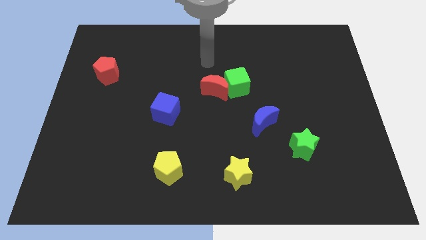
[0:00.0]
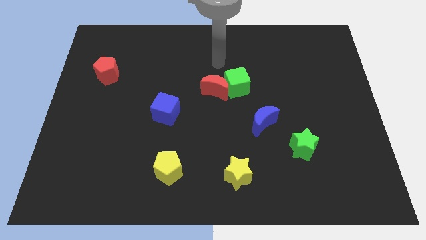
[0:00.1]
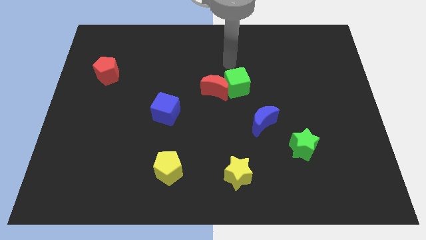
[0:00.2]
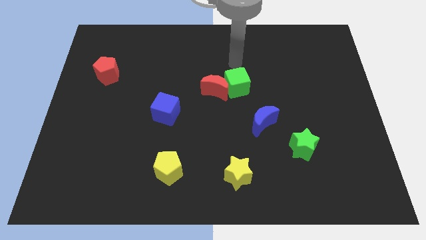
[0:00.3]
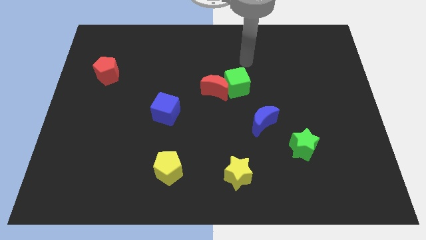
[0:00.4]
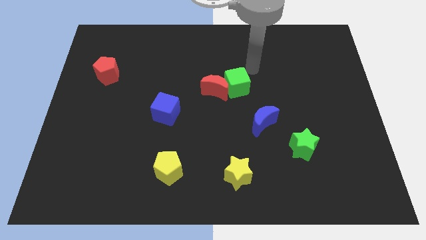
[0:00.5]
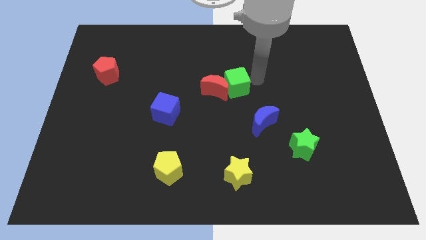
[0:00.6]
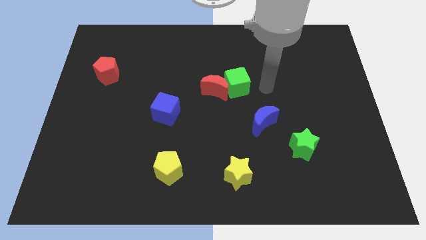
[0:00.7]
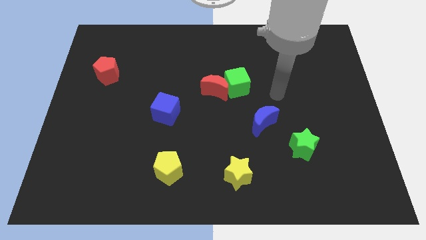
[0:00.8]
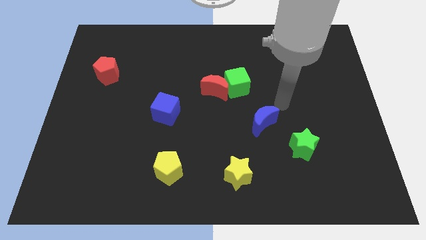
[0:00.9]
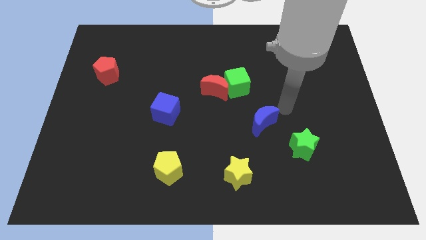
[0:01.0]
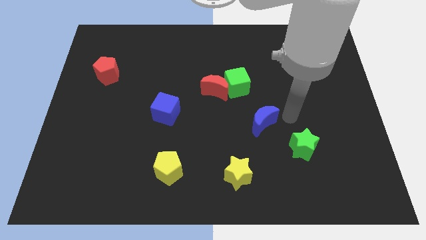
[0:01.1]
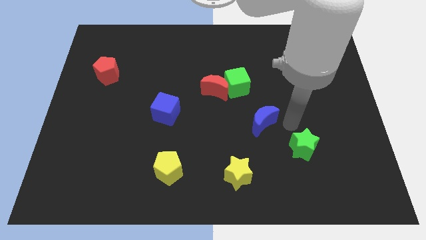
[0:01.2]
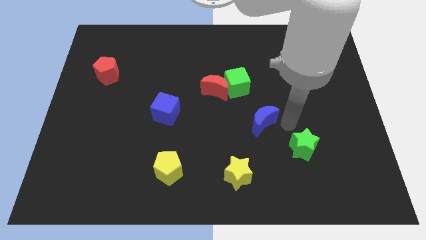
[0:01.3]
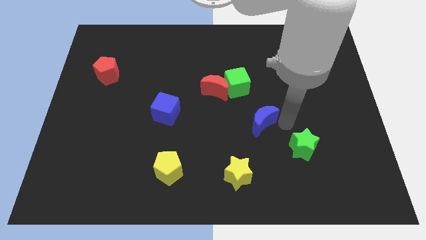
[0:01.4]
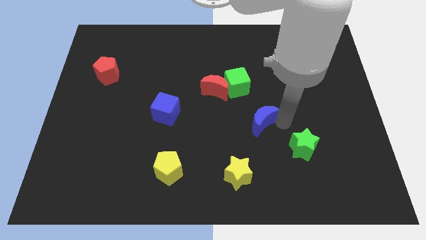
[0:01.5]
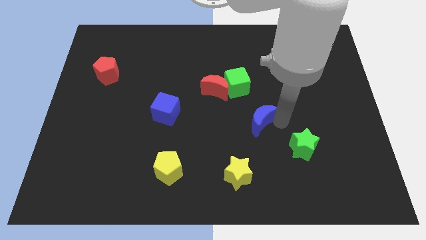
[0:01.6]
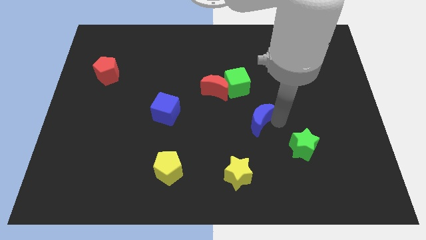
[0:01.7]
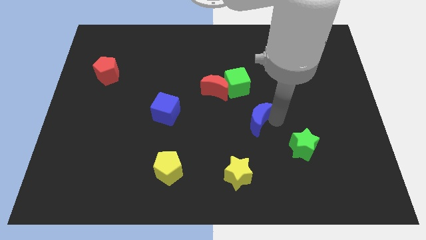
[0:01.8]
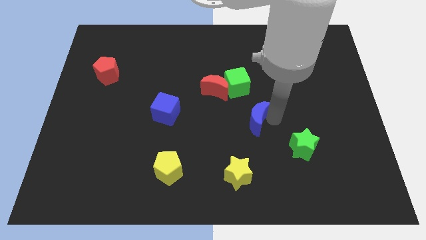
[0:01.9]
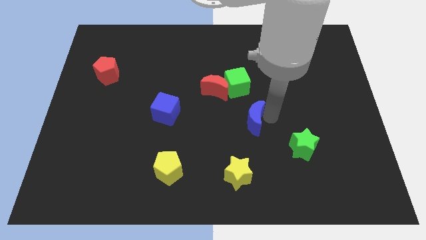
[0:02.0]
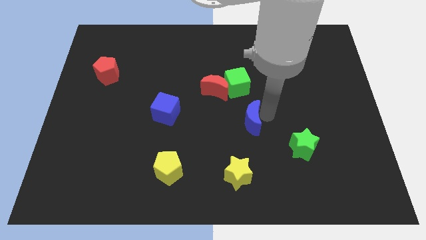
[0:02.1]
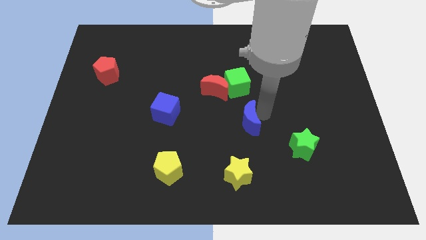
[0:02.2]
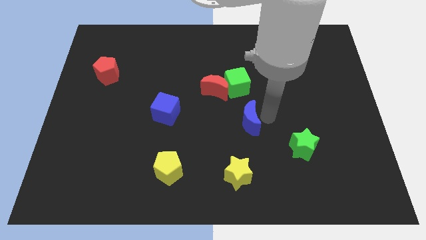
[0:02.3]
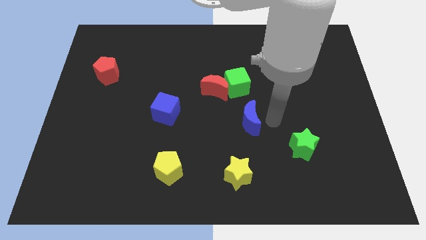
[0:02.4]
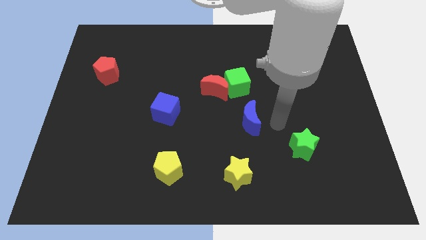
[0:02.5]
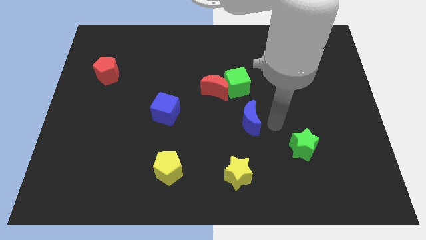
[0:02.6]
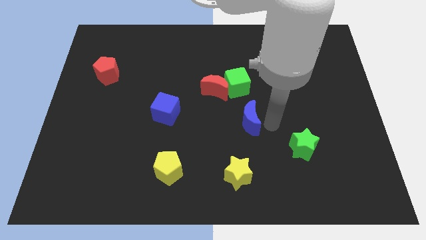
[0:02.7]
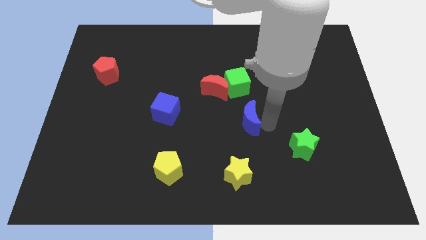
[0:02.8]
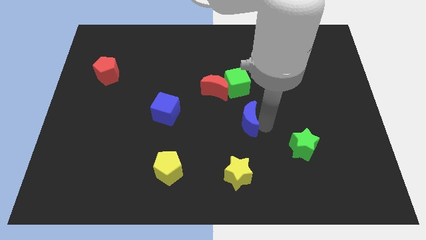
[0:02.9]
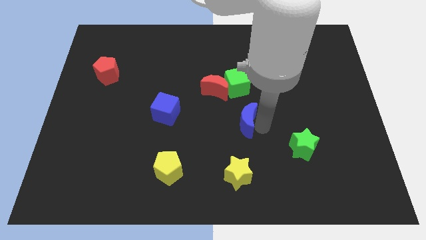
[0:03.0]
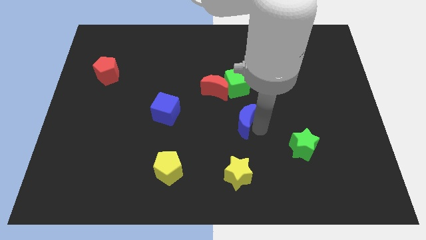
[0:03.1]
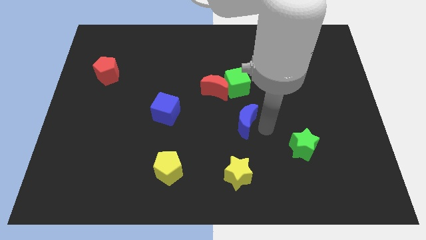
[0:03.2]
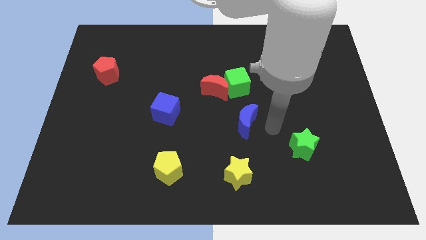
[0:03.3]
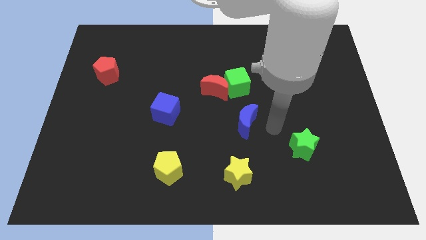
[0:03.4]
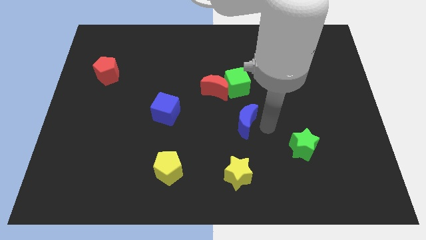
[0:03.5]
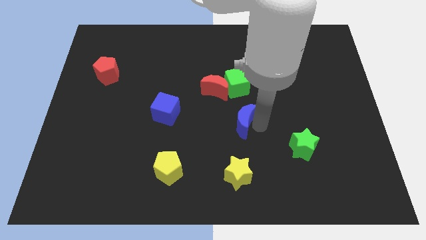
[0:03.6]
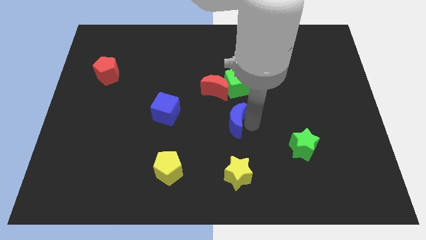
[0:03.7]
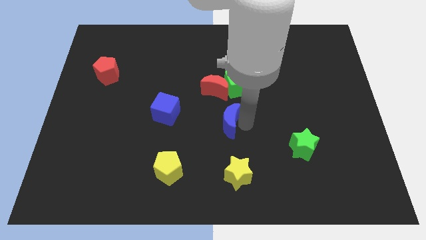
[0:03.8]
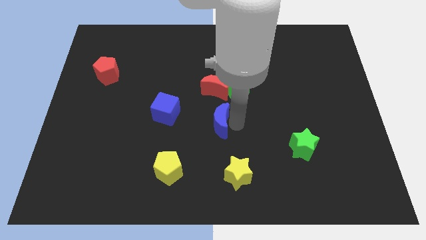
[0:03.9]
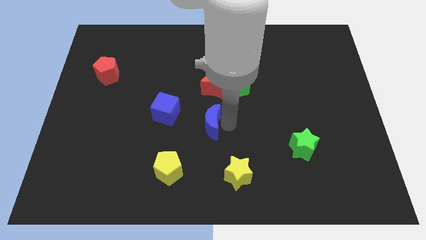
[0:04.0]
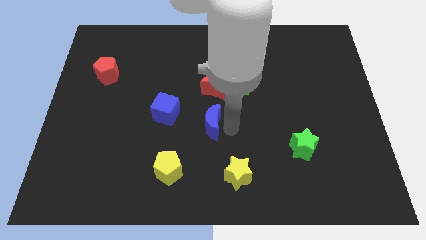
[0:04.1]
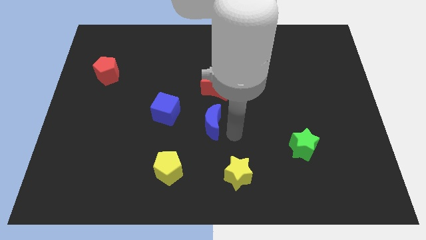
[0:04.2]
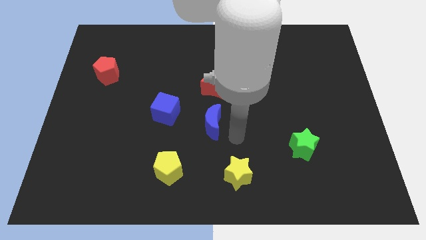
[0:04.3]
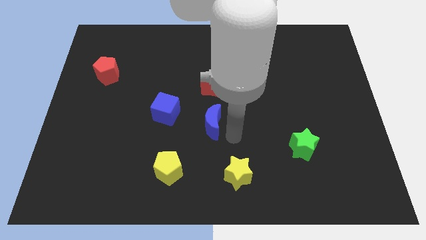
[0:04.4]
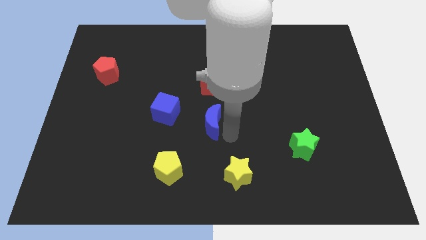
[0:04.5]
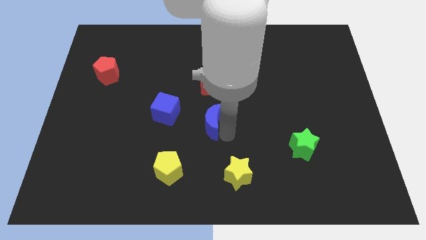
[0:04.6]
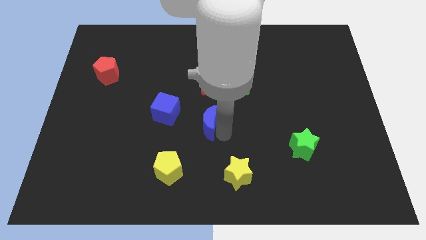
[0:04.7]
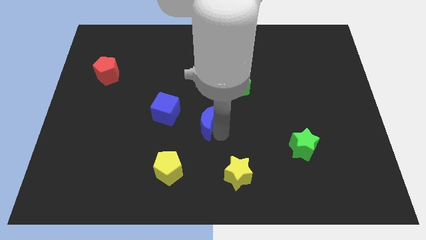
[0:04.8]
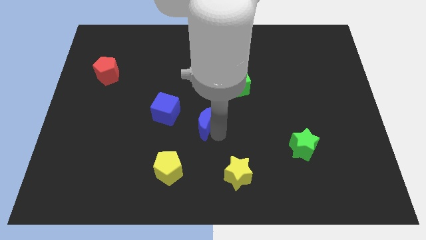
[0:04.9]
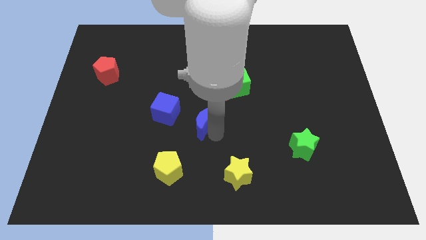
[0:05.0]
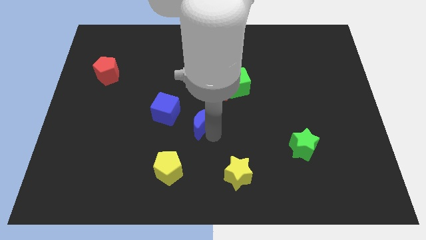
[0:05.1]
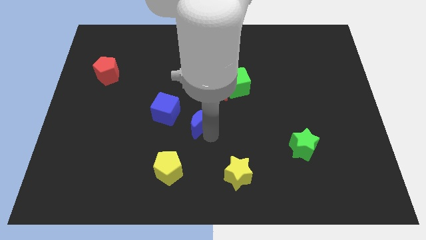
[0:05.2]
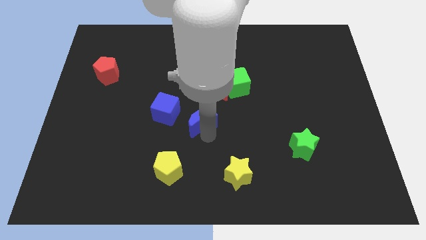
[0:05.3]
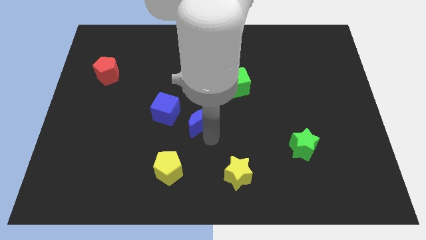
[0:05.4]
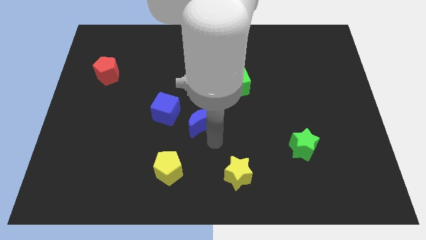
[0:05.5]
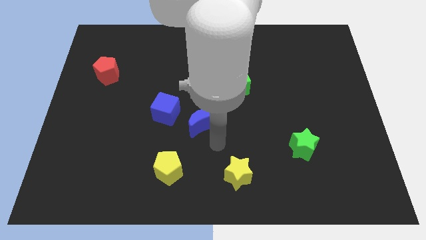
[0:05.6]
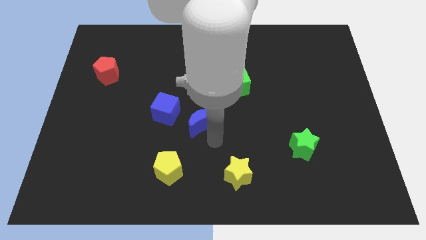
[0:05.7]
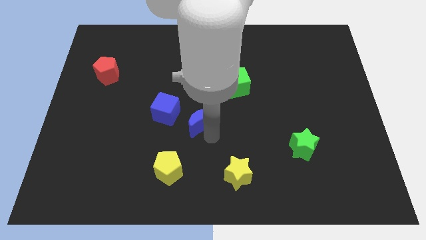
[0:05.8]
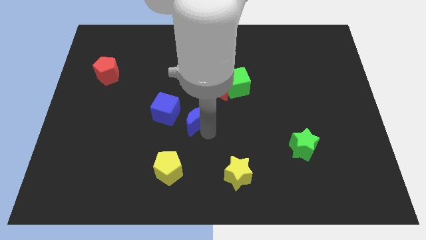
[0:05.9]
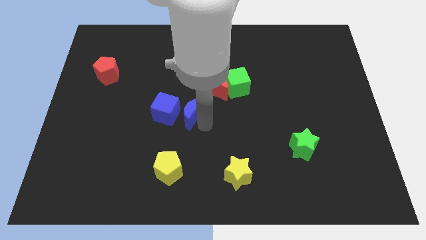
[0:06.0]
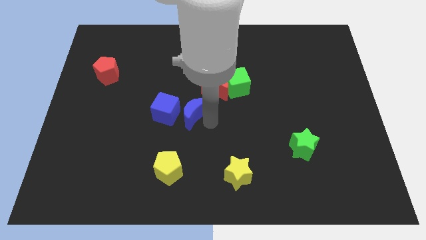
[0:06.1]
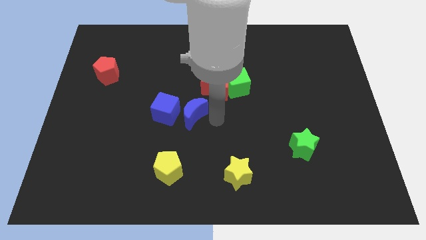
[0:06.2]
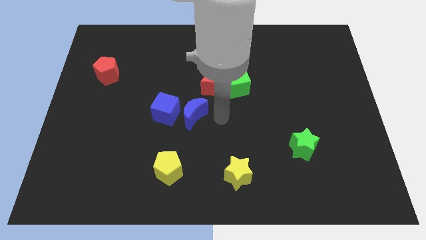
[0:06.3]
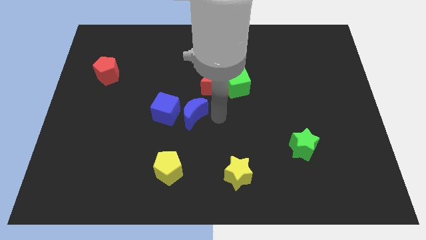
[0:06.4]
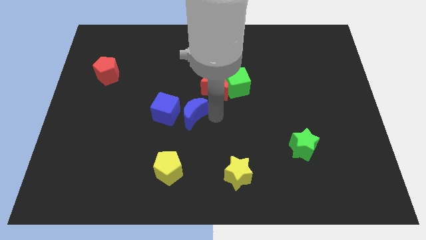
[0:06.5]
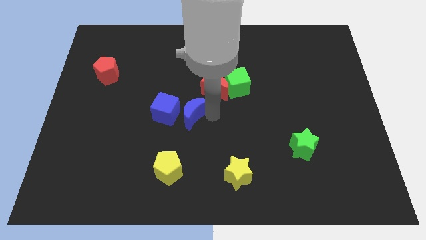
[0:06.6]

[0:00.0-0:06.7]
push the blue moon towards the blue cube

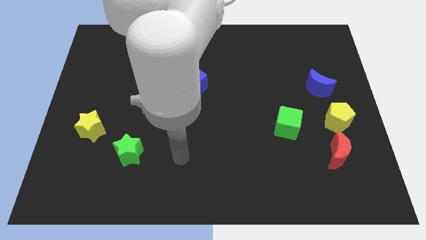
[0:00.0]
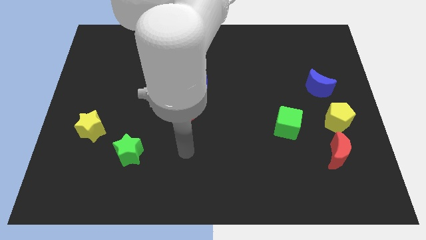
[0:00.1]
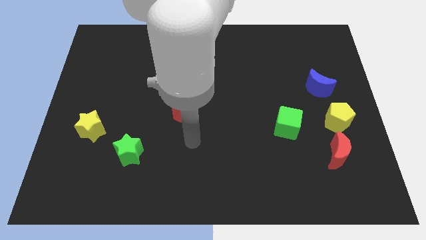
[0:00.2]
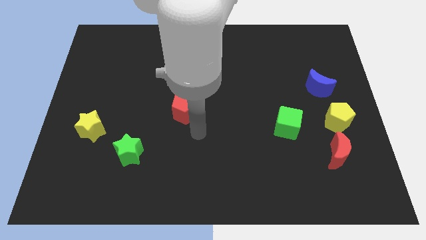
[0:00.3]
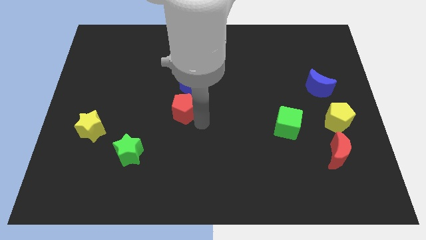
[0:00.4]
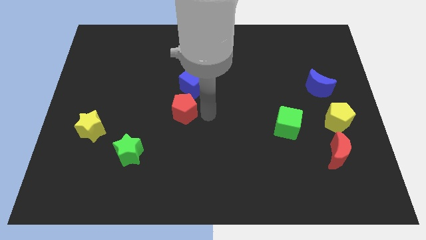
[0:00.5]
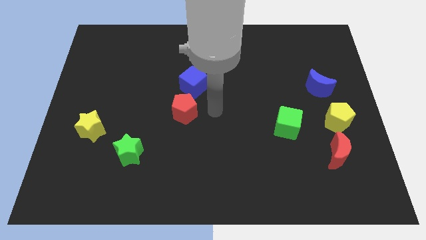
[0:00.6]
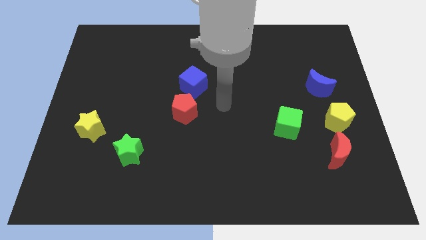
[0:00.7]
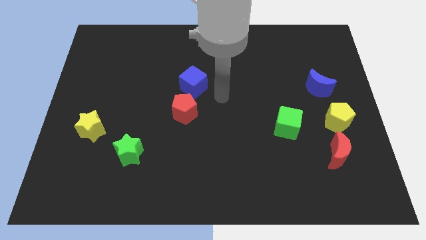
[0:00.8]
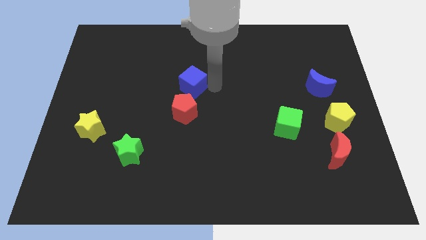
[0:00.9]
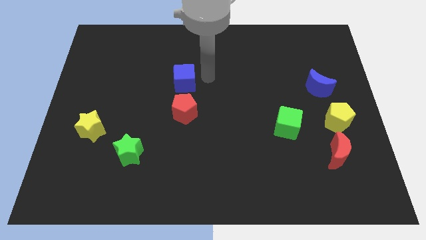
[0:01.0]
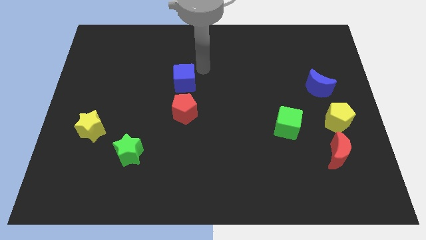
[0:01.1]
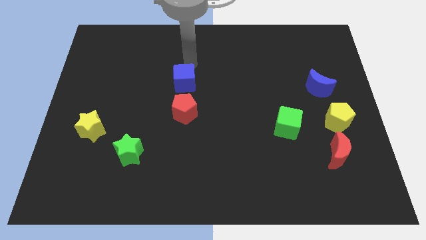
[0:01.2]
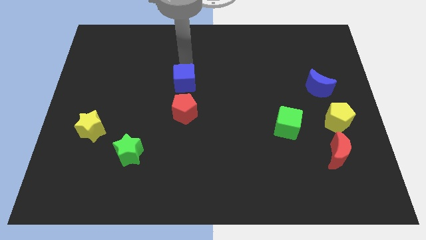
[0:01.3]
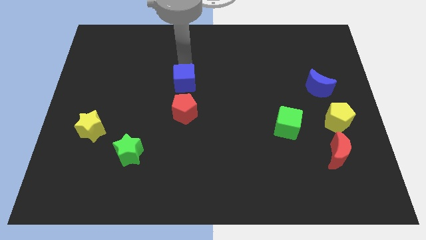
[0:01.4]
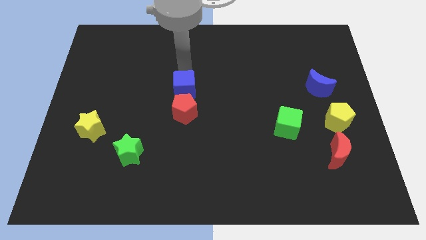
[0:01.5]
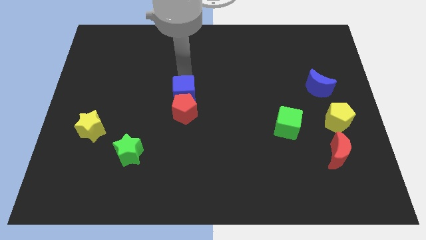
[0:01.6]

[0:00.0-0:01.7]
move the blue cube towards the red pentagon
